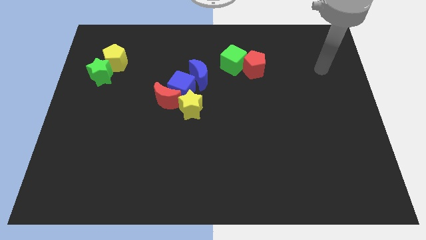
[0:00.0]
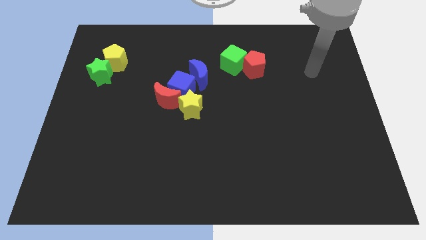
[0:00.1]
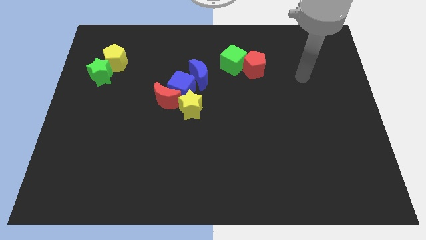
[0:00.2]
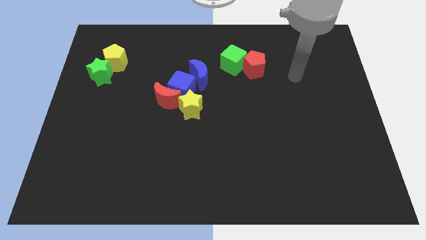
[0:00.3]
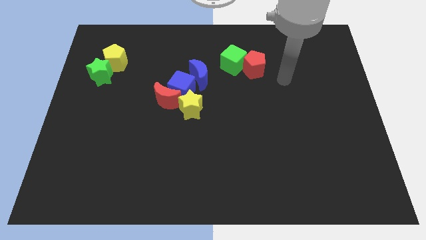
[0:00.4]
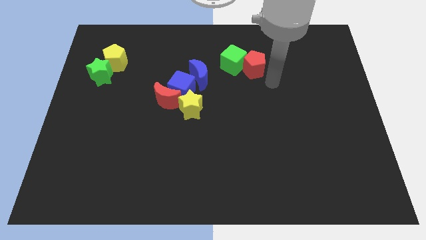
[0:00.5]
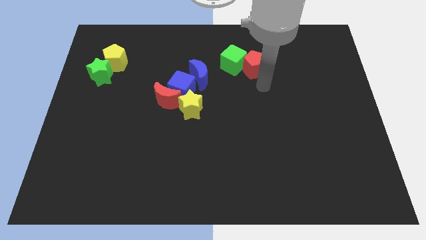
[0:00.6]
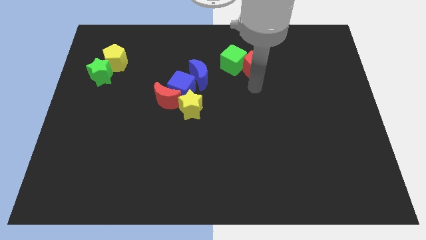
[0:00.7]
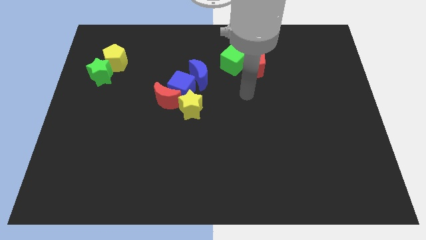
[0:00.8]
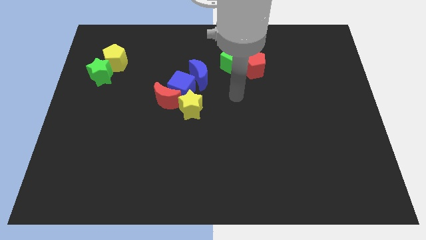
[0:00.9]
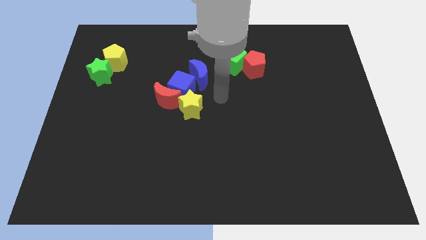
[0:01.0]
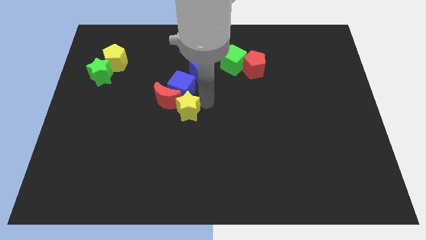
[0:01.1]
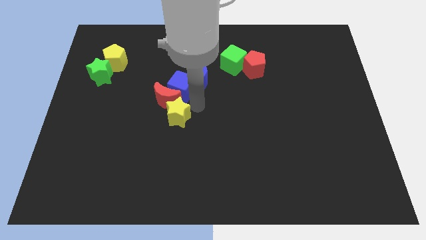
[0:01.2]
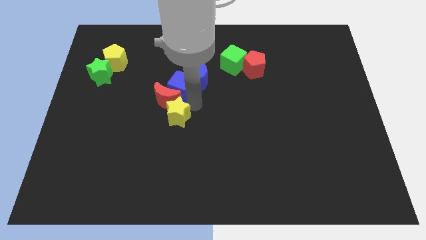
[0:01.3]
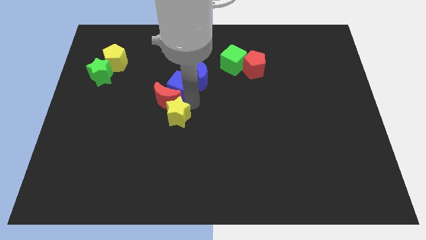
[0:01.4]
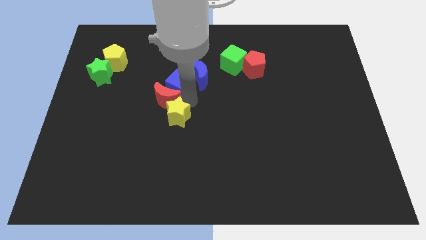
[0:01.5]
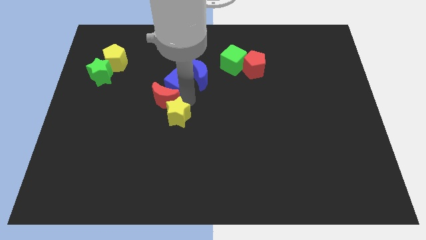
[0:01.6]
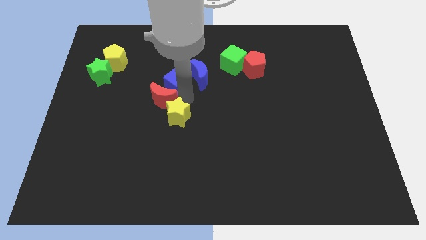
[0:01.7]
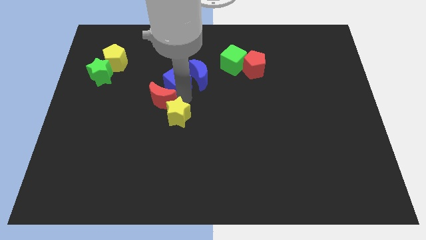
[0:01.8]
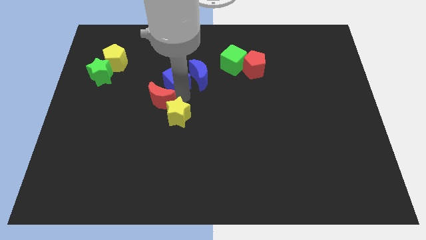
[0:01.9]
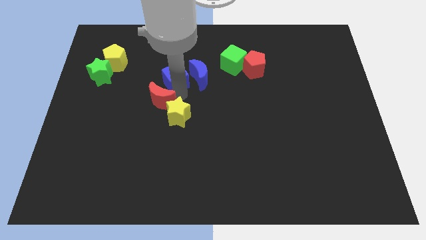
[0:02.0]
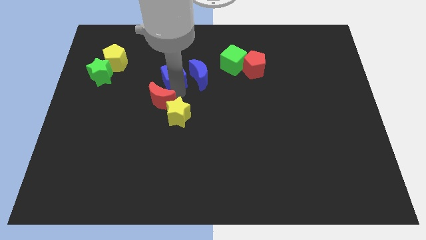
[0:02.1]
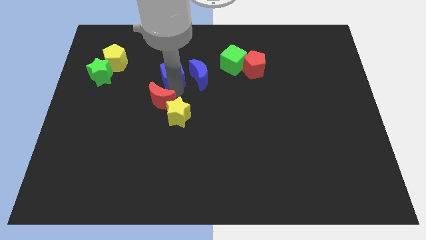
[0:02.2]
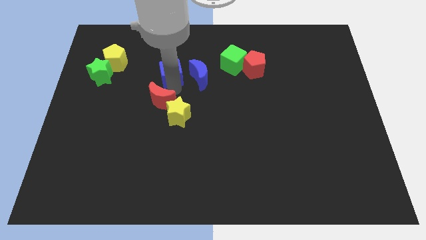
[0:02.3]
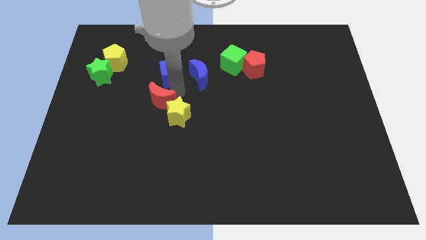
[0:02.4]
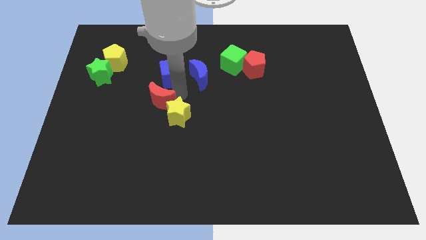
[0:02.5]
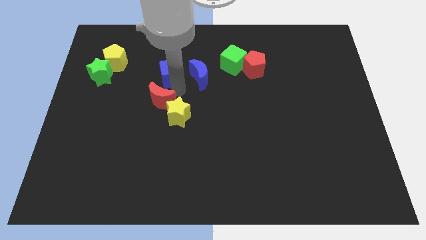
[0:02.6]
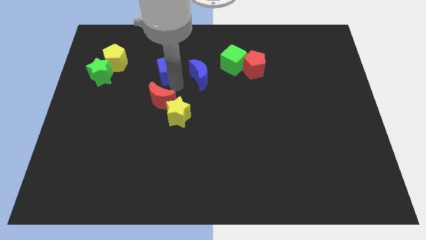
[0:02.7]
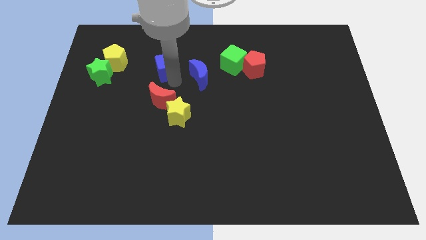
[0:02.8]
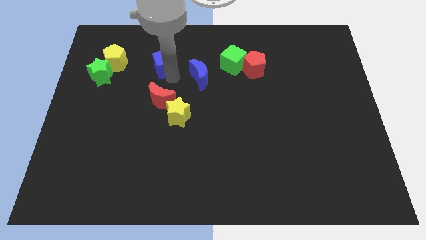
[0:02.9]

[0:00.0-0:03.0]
pull the blue cube apart from the group

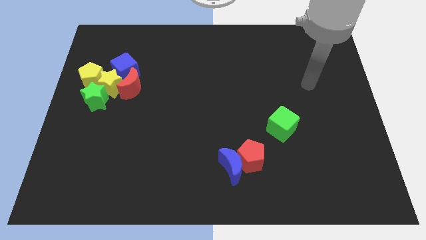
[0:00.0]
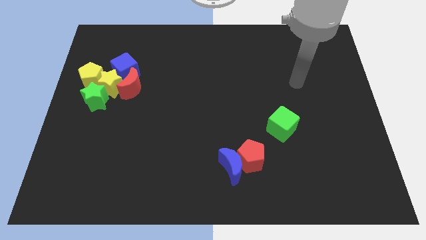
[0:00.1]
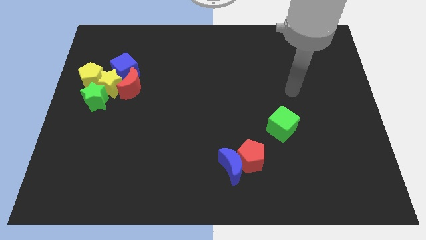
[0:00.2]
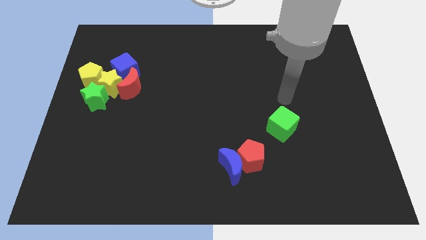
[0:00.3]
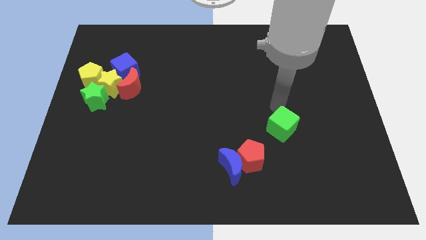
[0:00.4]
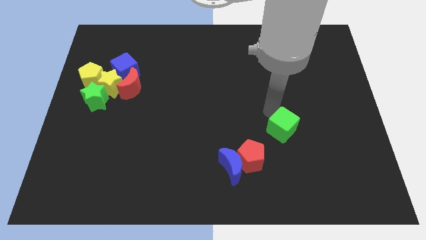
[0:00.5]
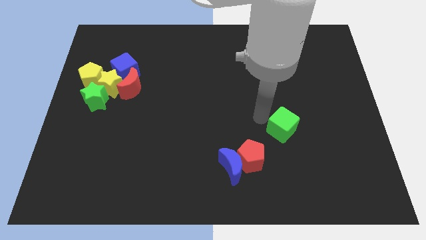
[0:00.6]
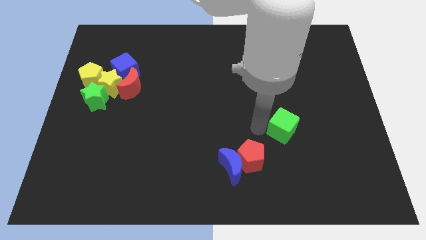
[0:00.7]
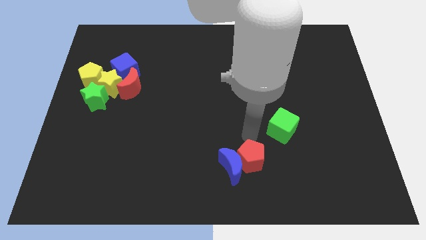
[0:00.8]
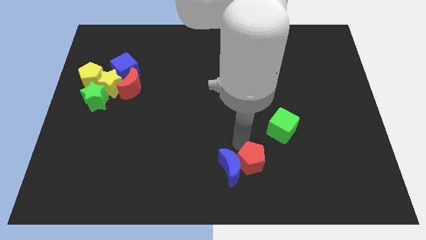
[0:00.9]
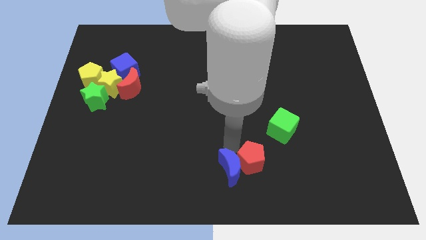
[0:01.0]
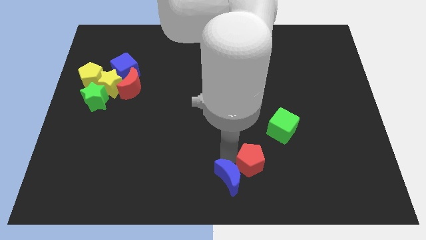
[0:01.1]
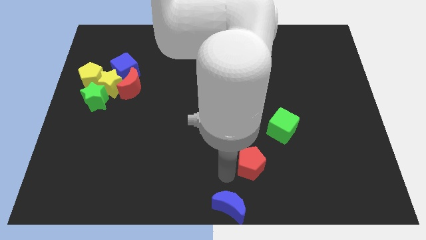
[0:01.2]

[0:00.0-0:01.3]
separate the red pentagon from the blue moon

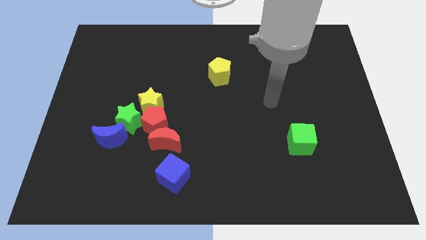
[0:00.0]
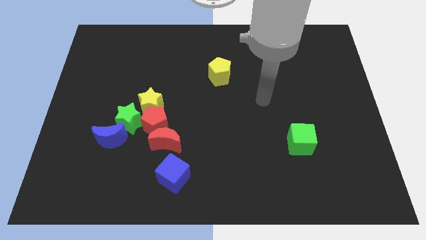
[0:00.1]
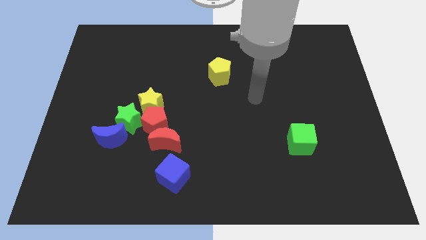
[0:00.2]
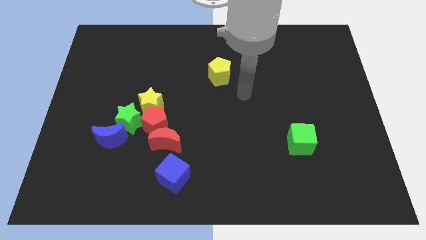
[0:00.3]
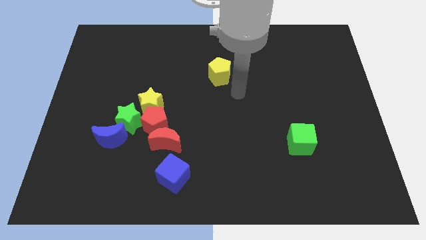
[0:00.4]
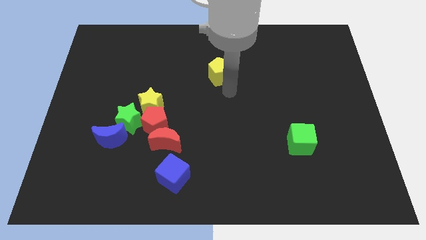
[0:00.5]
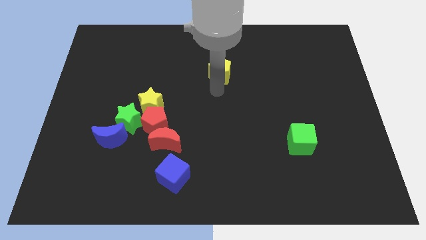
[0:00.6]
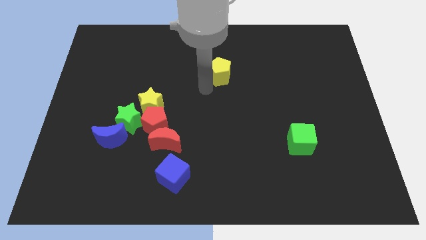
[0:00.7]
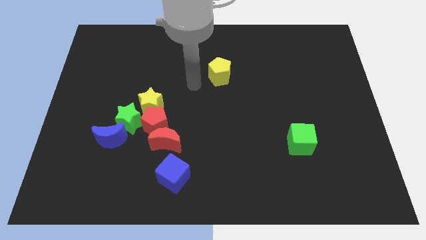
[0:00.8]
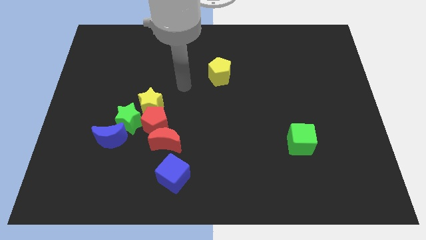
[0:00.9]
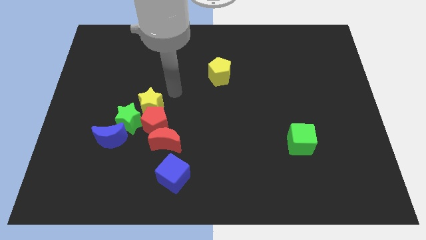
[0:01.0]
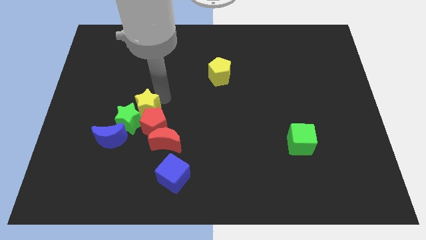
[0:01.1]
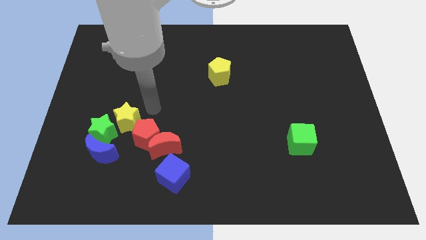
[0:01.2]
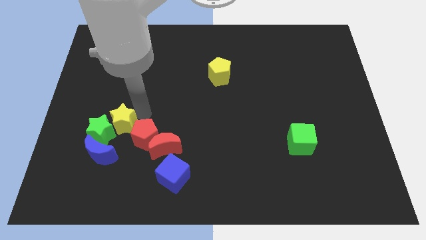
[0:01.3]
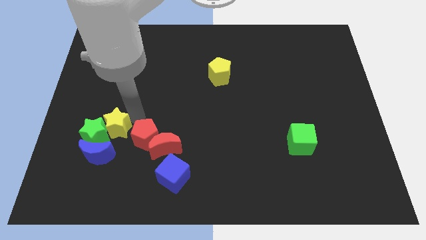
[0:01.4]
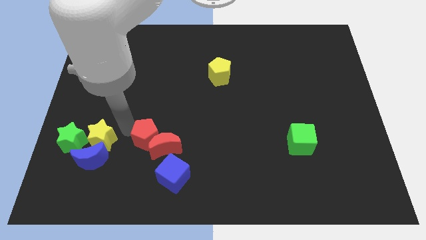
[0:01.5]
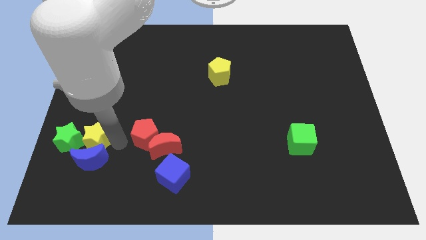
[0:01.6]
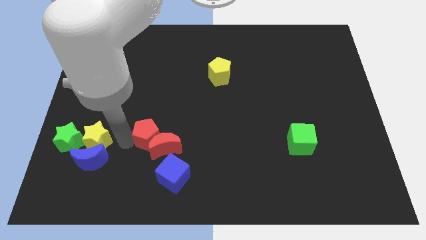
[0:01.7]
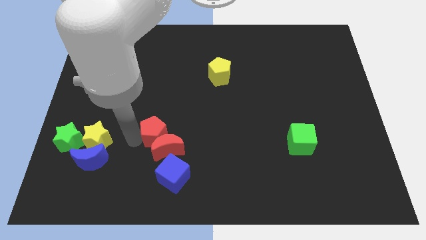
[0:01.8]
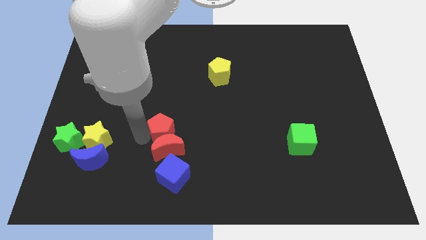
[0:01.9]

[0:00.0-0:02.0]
pull the red pentagon apart from the clump

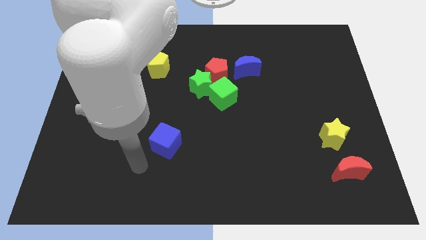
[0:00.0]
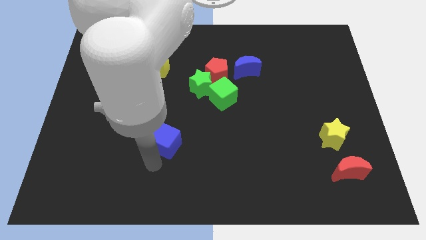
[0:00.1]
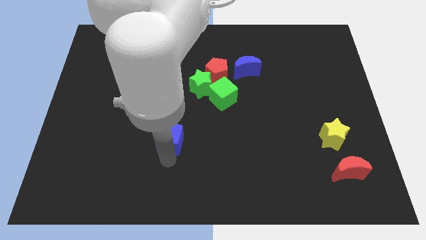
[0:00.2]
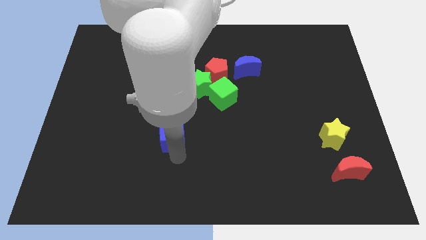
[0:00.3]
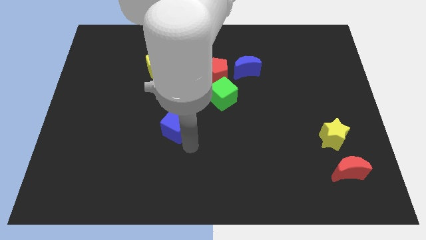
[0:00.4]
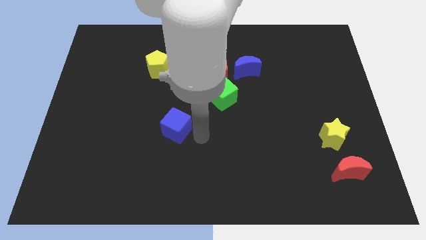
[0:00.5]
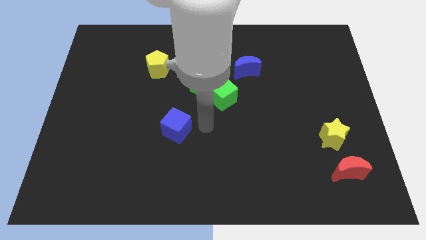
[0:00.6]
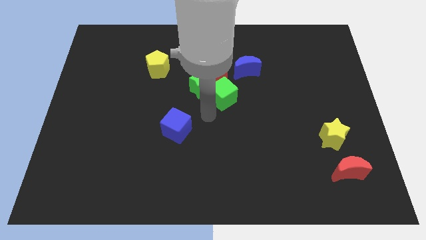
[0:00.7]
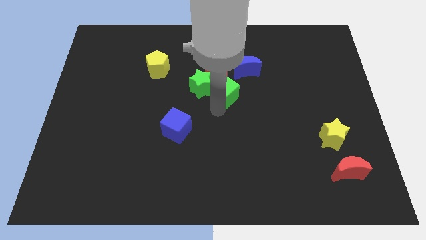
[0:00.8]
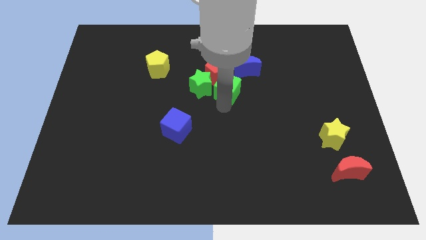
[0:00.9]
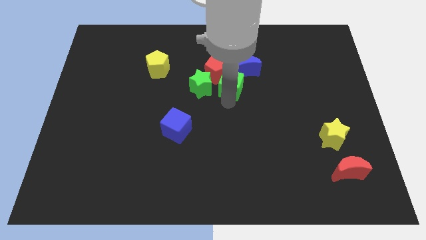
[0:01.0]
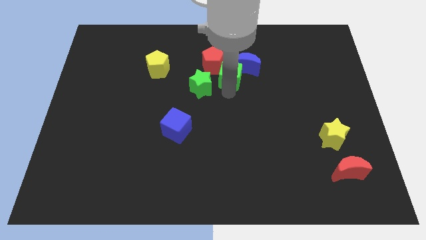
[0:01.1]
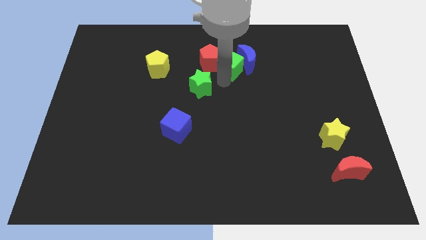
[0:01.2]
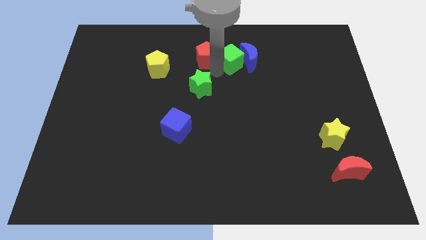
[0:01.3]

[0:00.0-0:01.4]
move the green star away from the red pentagon and green cube

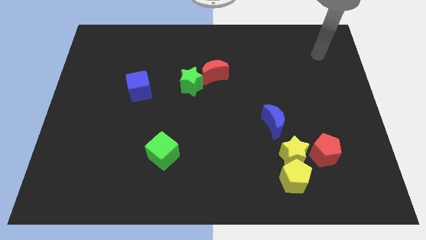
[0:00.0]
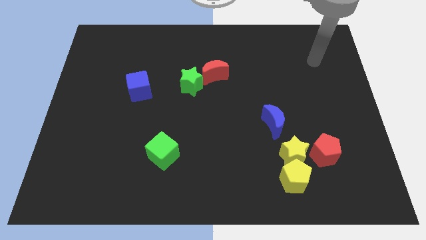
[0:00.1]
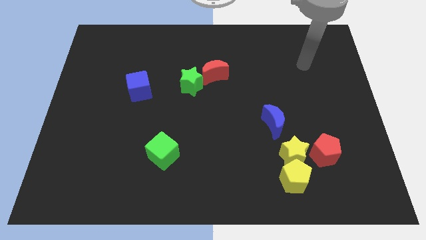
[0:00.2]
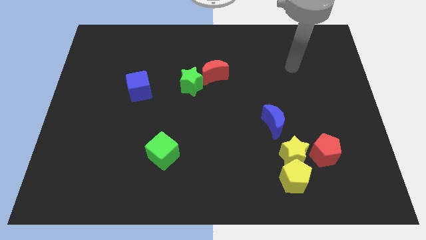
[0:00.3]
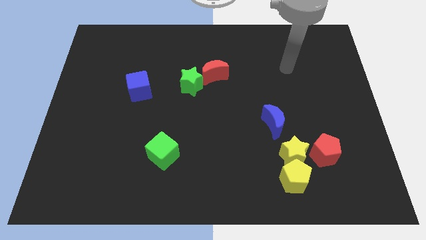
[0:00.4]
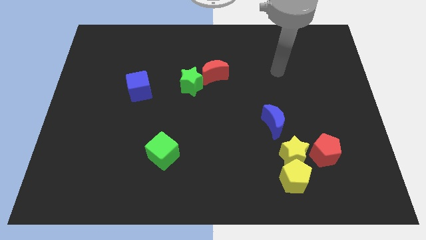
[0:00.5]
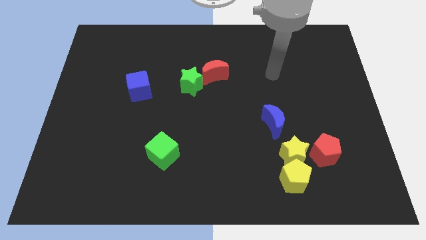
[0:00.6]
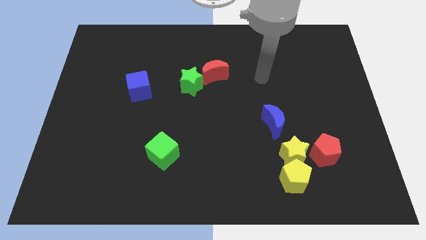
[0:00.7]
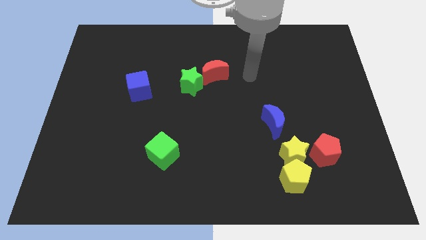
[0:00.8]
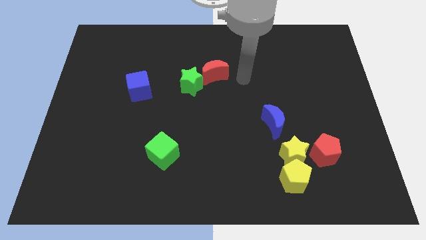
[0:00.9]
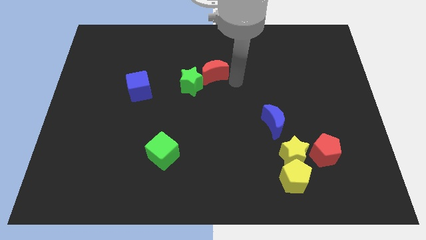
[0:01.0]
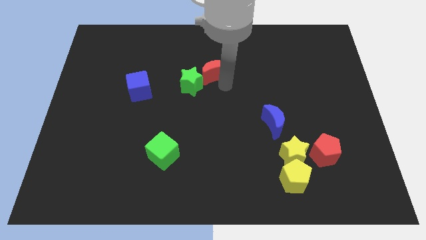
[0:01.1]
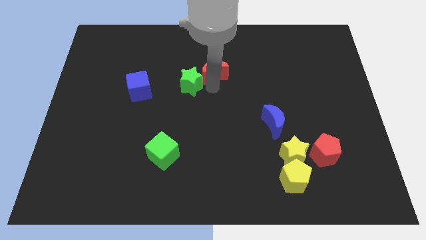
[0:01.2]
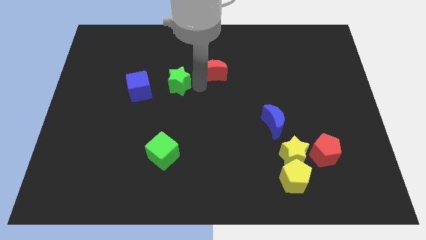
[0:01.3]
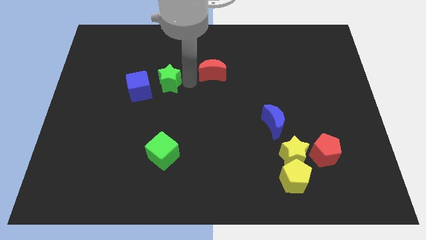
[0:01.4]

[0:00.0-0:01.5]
separate the red moon from the green star
